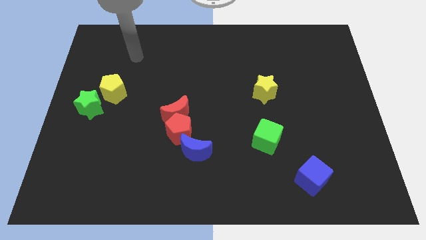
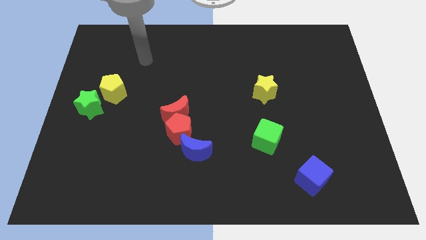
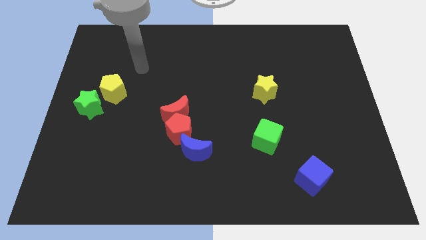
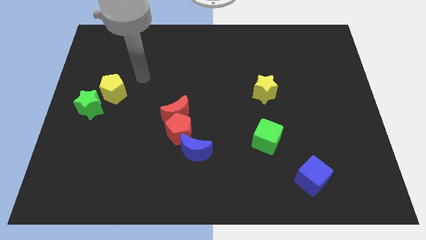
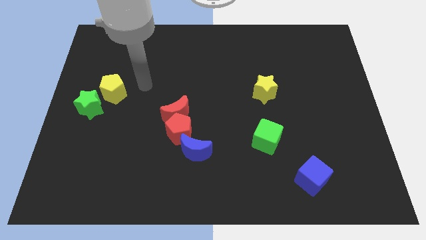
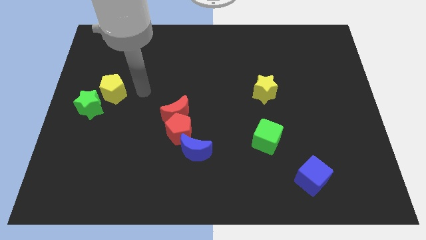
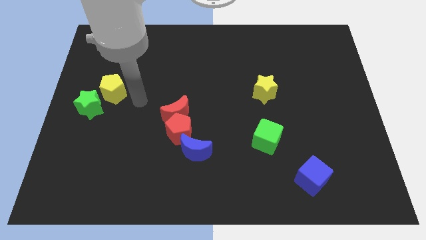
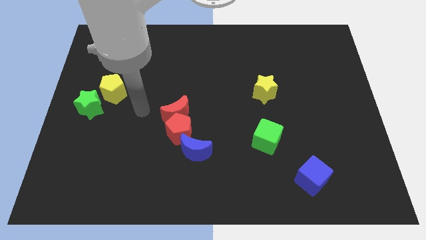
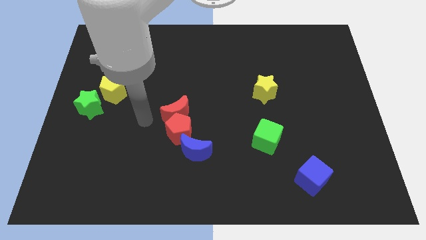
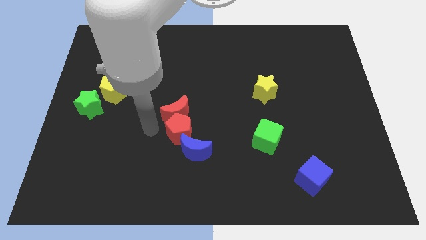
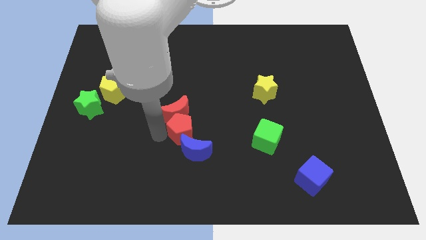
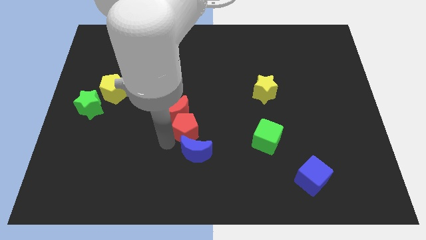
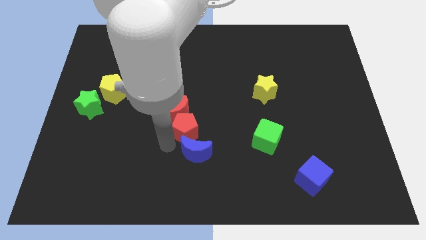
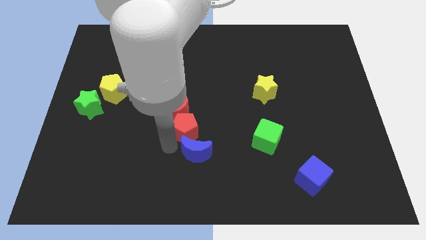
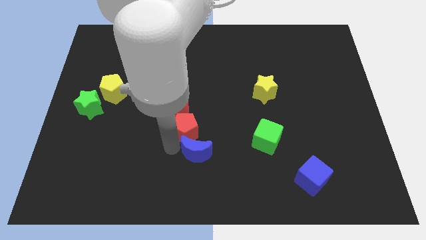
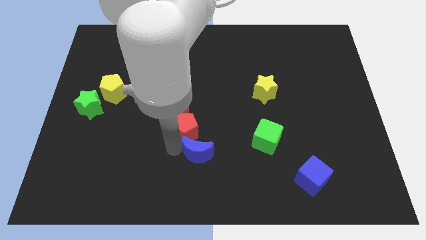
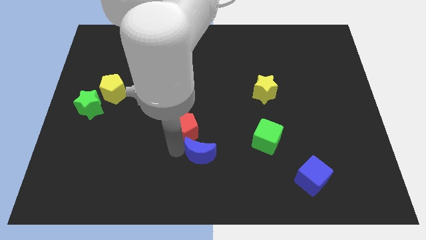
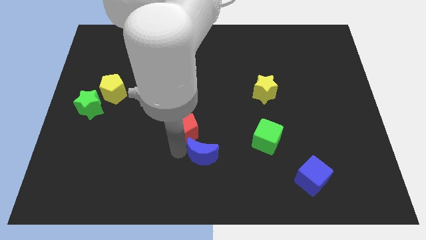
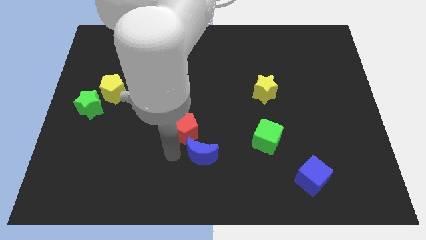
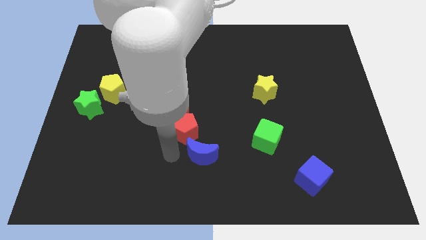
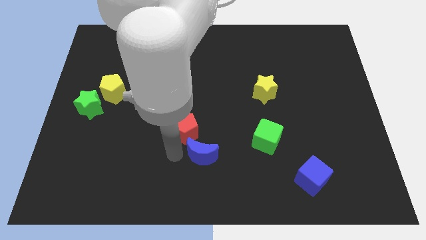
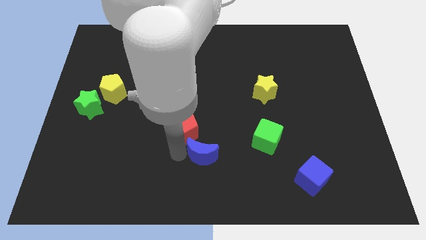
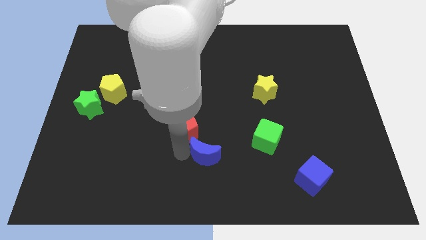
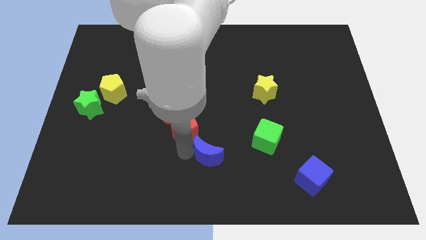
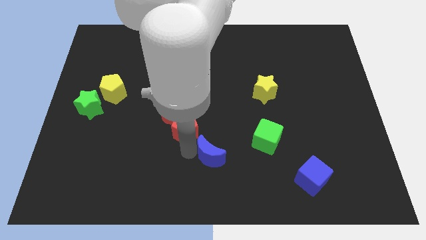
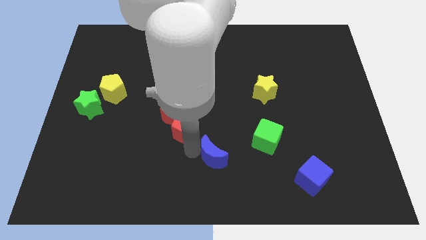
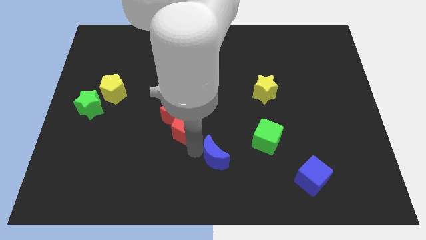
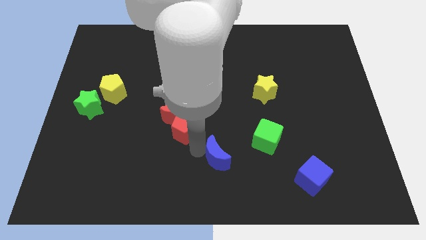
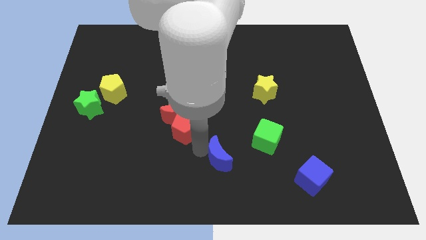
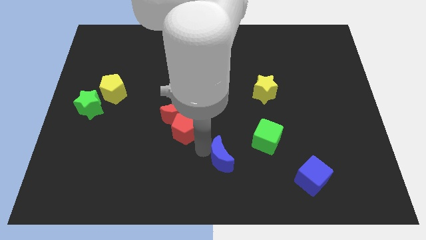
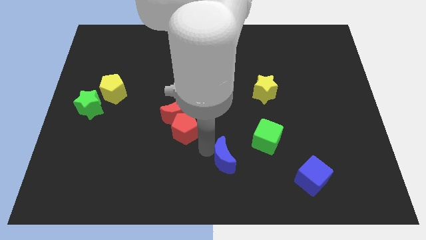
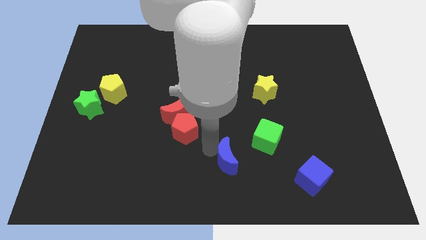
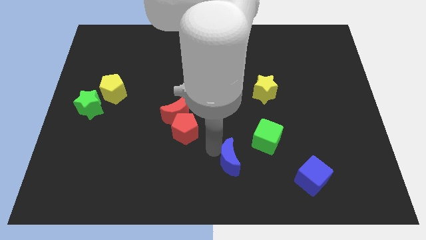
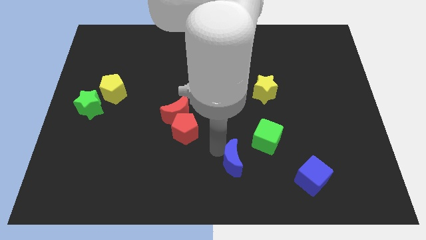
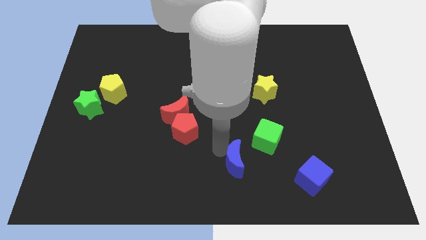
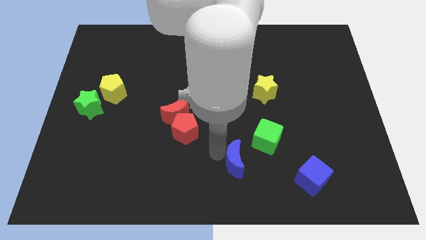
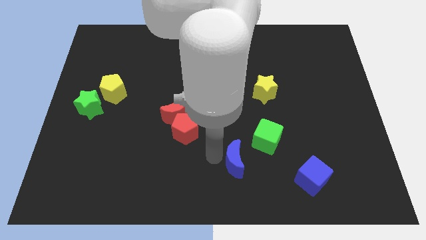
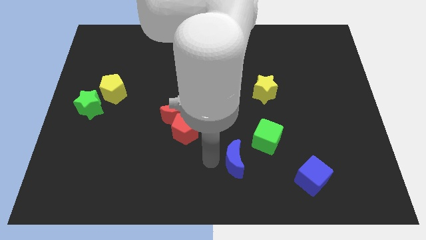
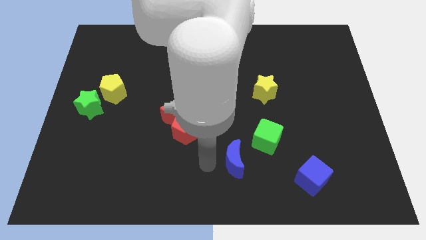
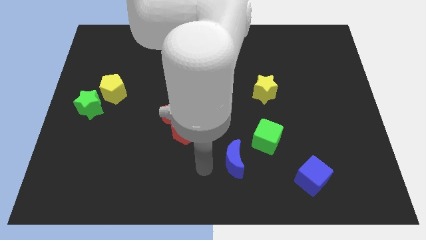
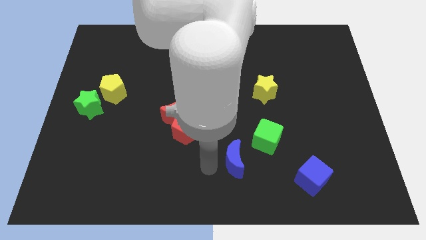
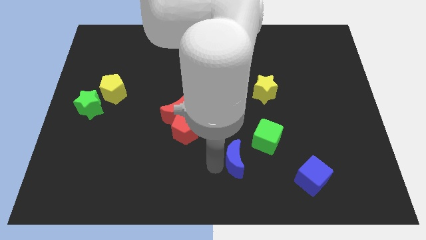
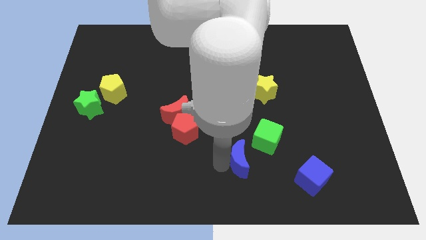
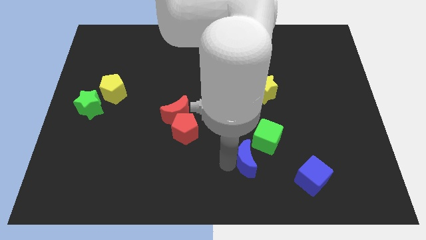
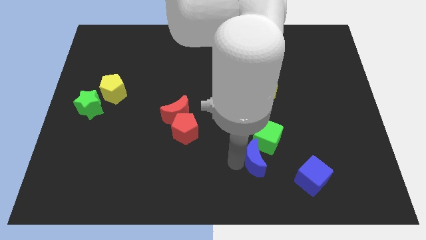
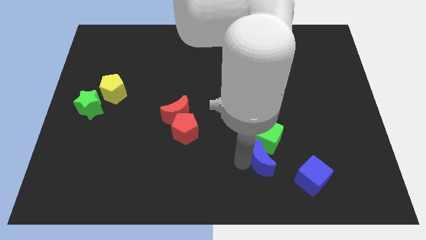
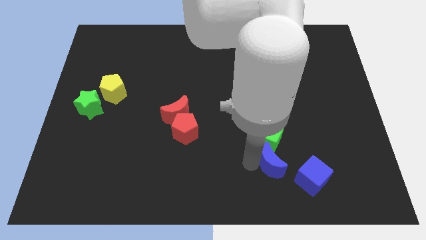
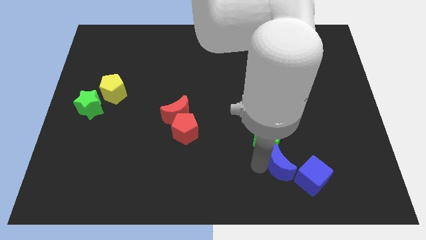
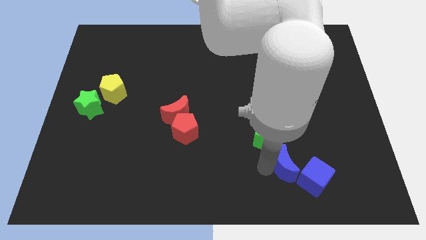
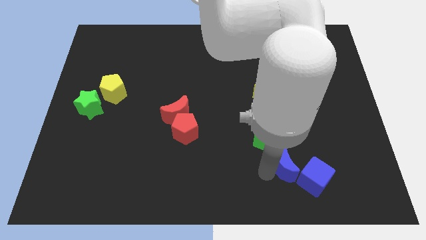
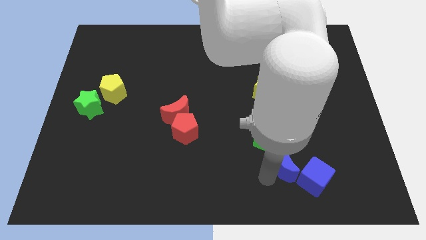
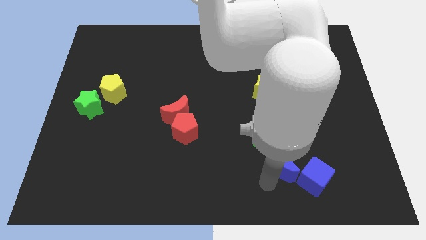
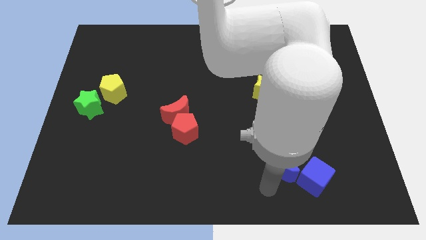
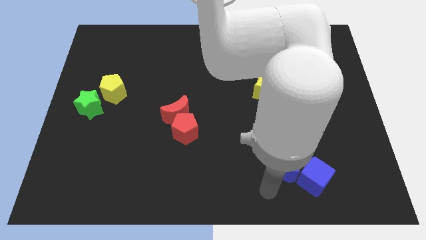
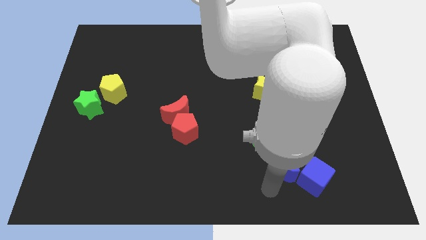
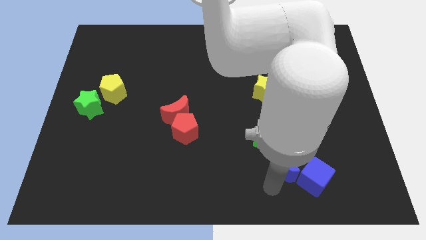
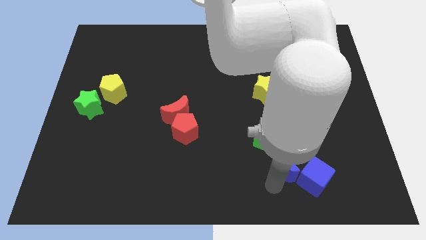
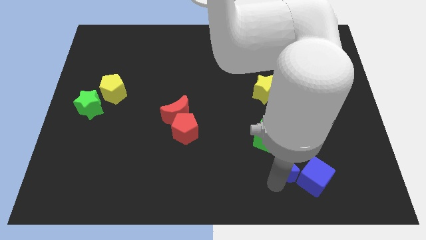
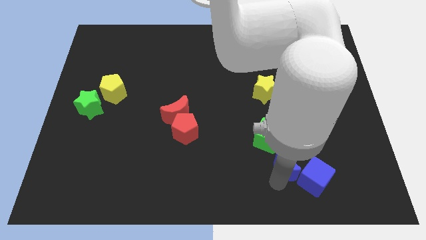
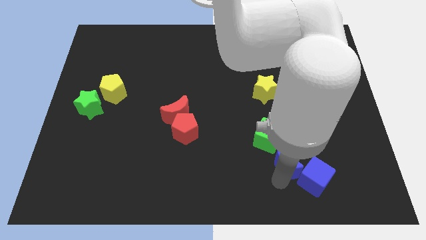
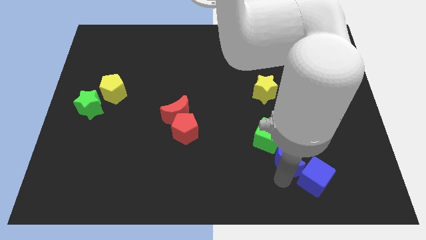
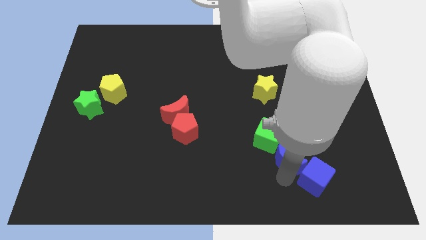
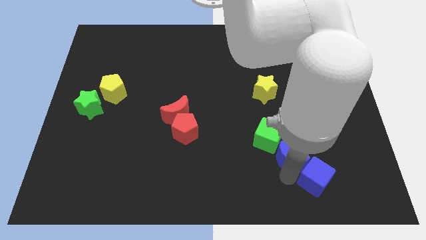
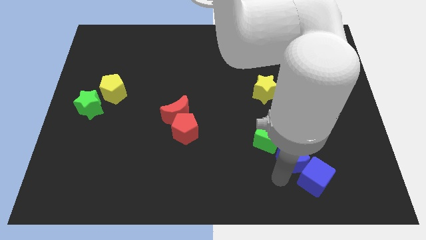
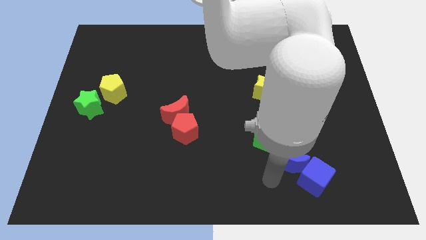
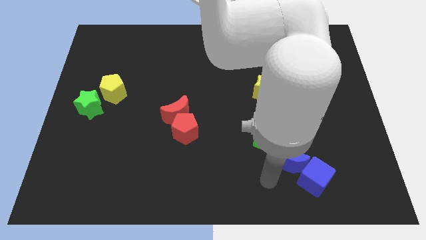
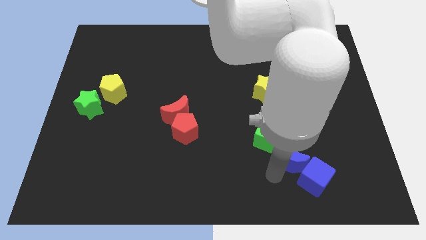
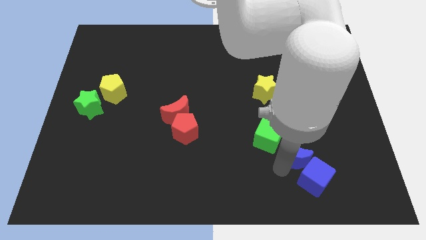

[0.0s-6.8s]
push the blue moon to the right side of the green cube
